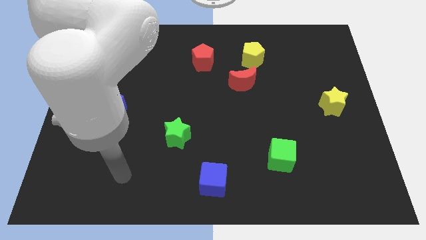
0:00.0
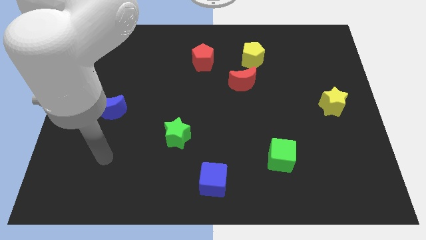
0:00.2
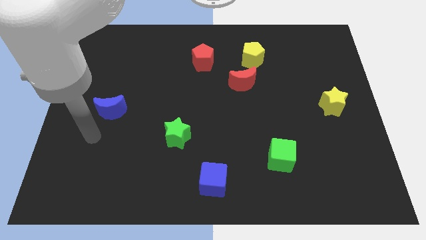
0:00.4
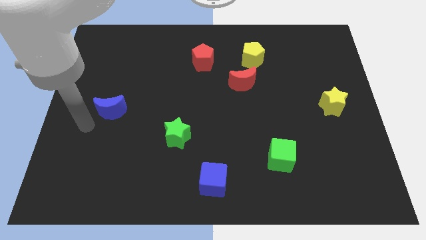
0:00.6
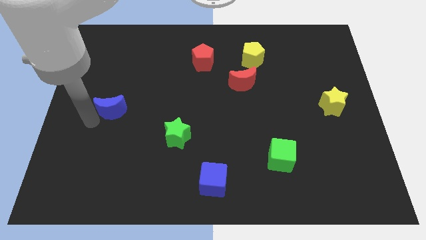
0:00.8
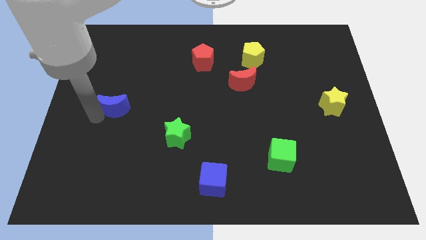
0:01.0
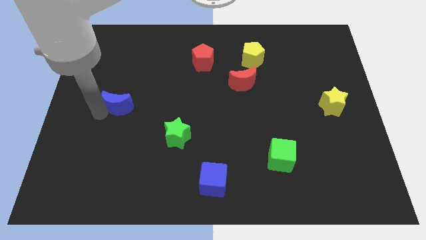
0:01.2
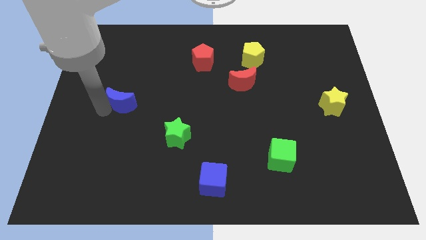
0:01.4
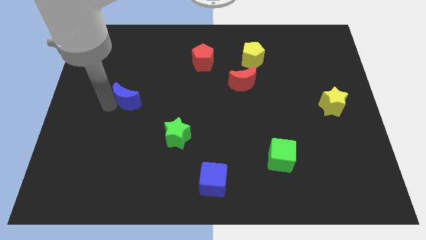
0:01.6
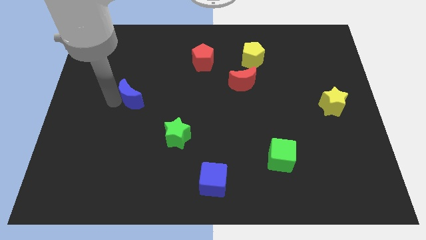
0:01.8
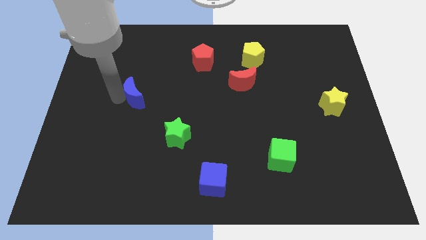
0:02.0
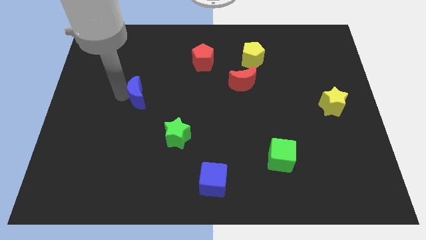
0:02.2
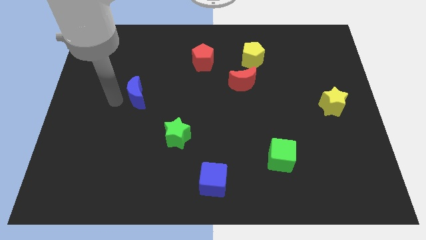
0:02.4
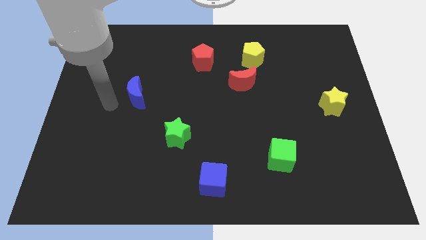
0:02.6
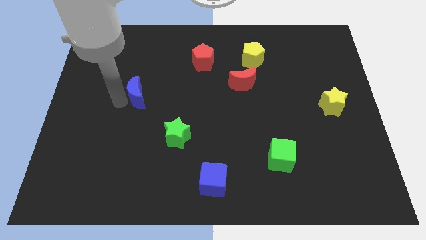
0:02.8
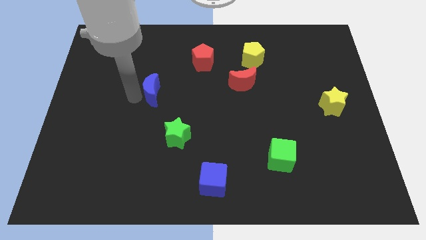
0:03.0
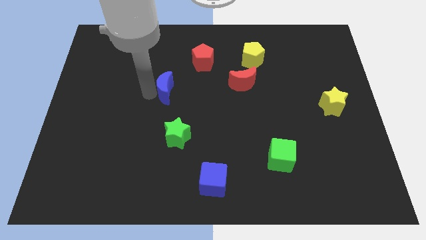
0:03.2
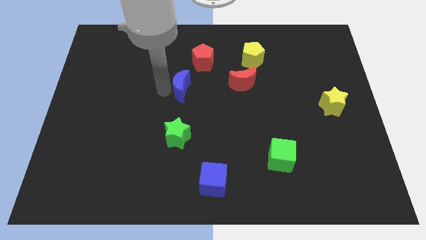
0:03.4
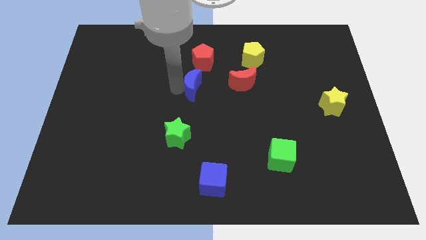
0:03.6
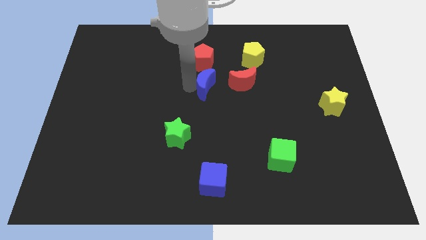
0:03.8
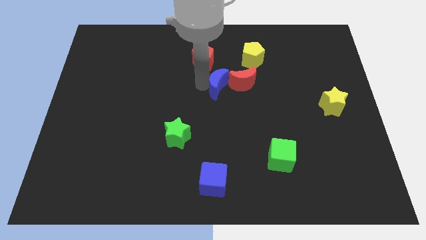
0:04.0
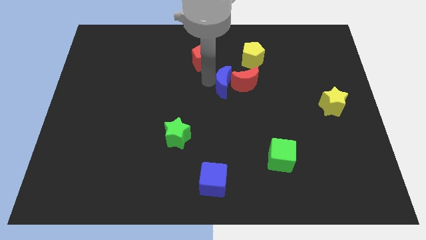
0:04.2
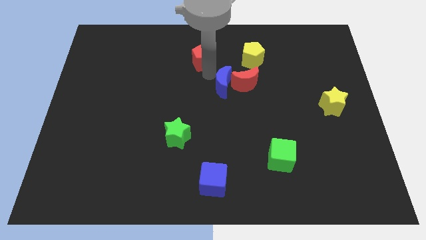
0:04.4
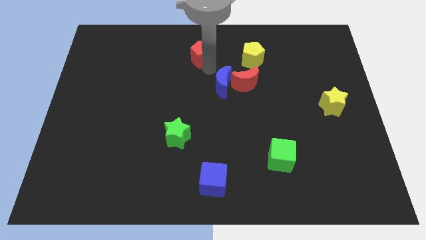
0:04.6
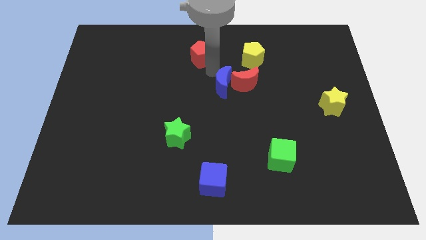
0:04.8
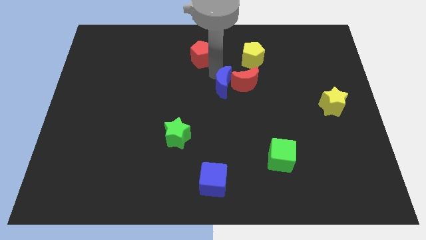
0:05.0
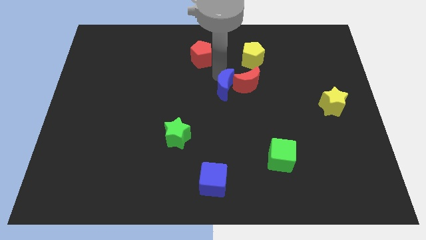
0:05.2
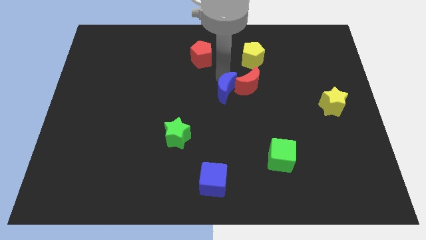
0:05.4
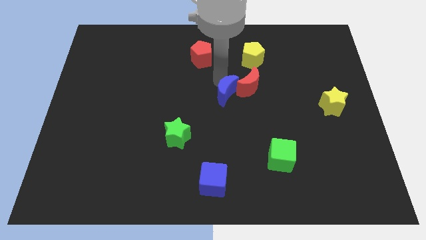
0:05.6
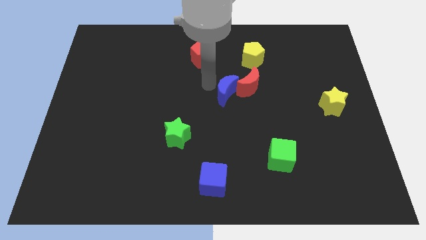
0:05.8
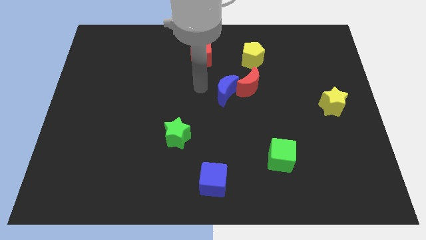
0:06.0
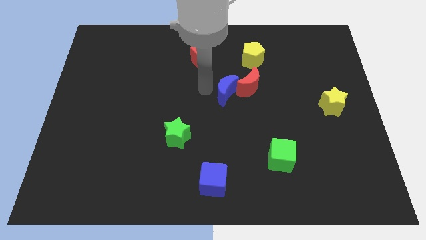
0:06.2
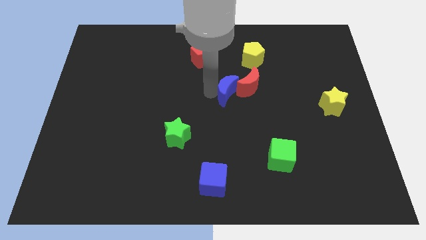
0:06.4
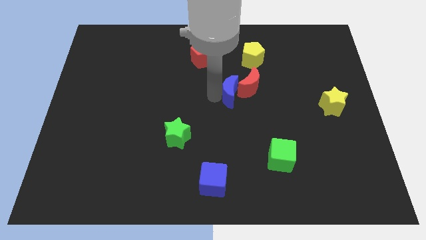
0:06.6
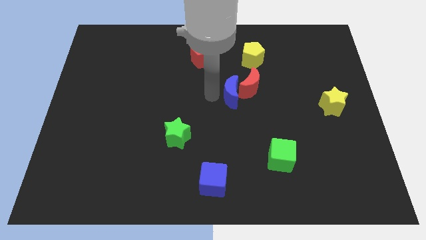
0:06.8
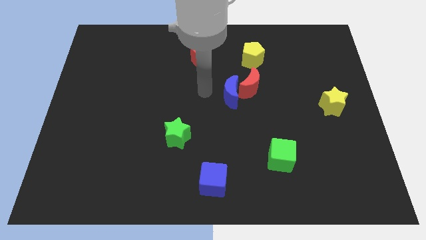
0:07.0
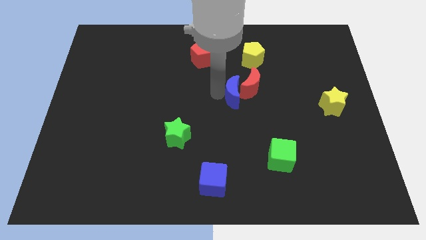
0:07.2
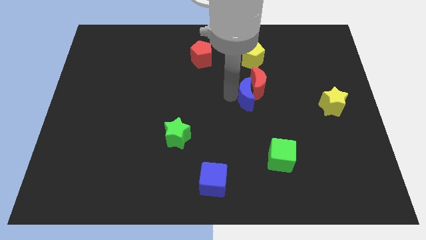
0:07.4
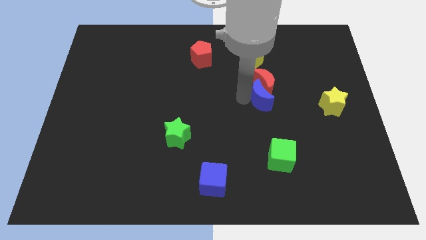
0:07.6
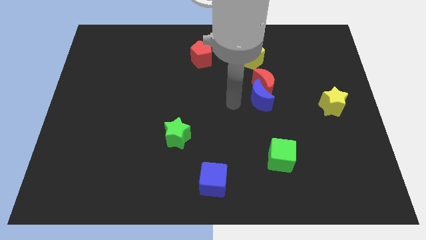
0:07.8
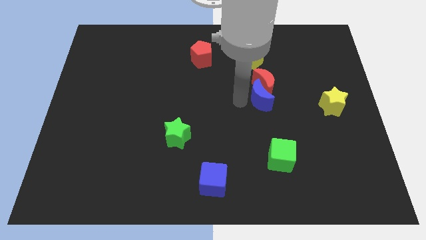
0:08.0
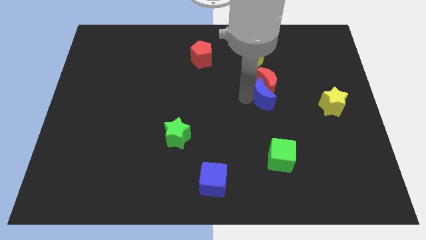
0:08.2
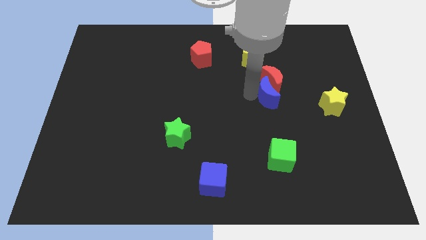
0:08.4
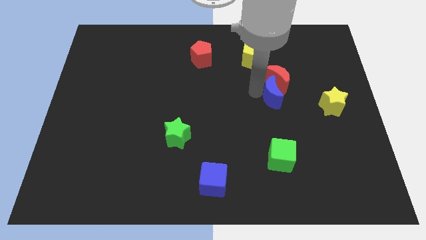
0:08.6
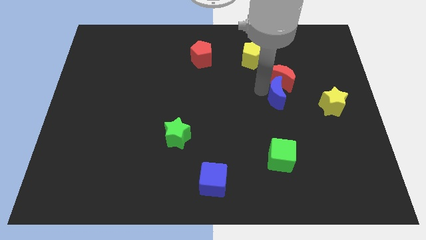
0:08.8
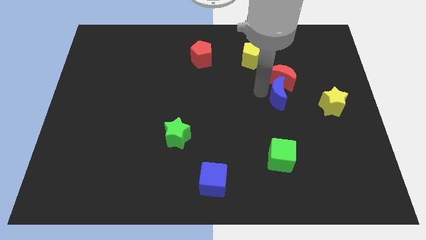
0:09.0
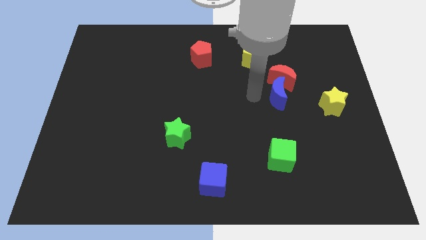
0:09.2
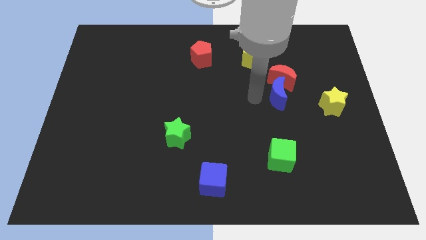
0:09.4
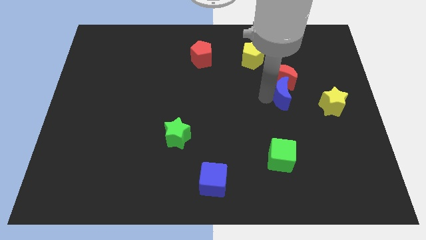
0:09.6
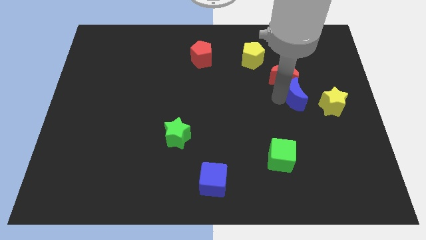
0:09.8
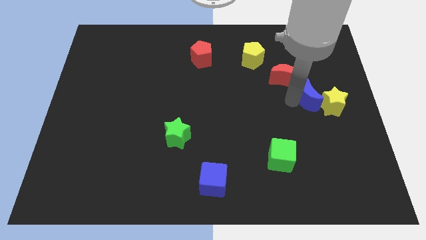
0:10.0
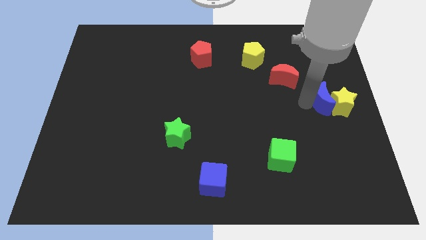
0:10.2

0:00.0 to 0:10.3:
push the blue moon to the center right
